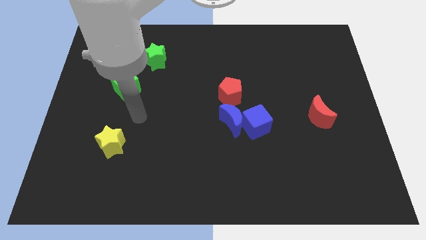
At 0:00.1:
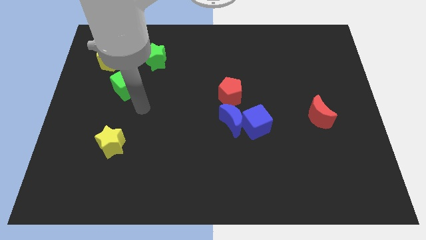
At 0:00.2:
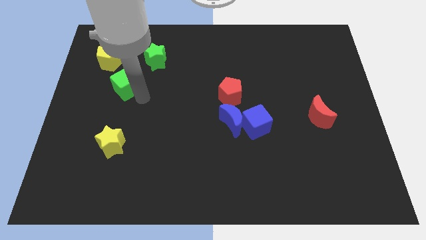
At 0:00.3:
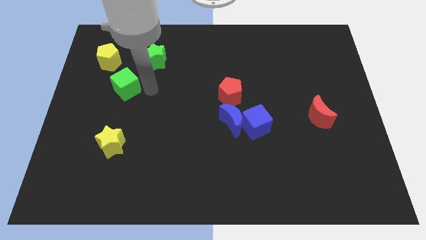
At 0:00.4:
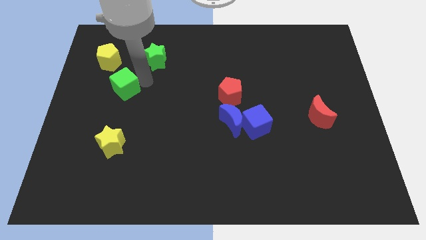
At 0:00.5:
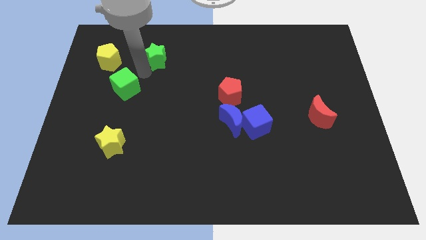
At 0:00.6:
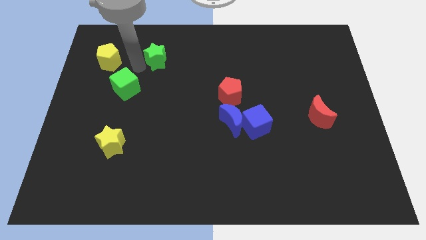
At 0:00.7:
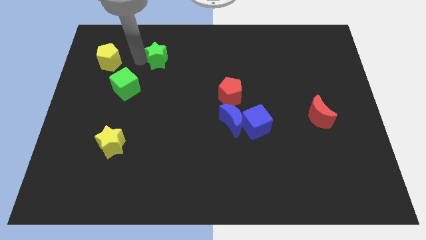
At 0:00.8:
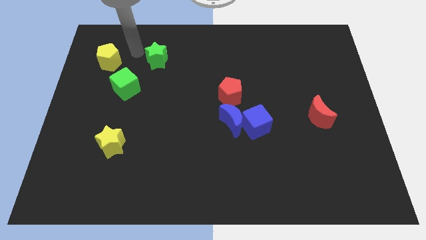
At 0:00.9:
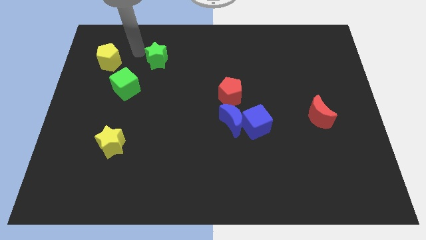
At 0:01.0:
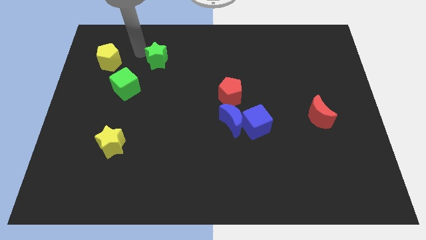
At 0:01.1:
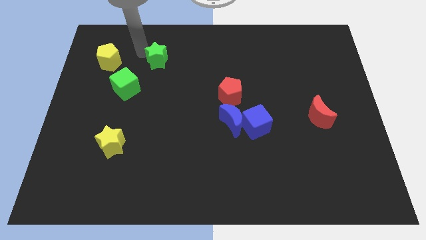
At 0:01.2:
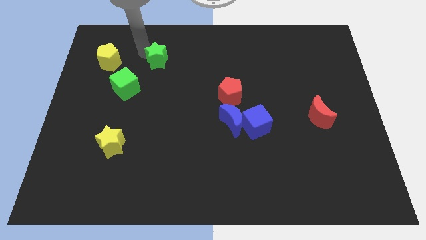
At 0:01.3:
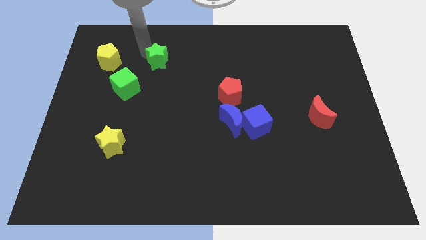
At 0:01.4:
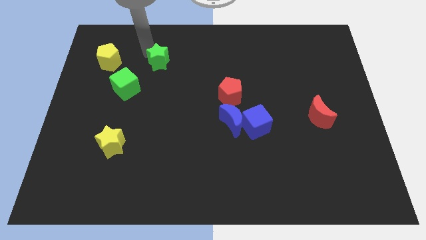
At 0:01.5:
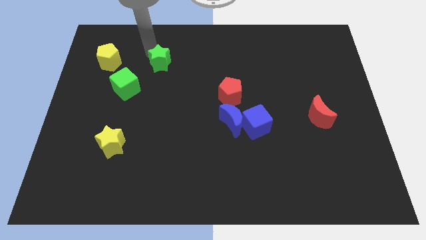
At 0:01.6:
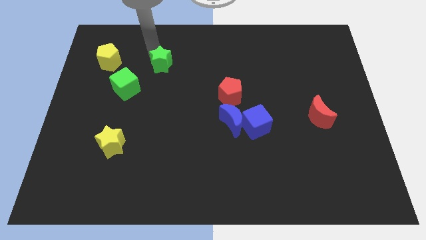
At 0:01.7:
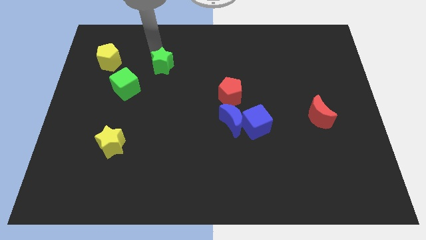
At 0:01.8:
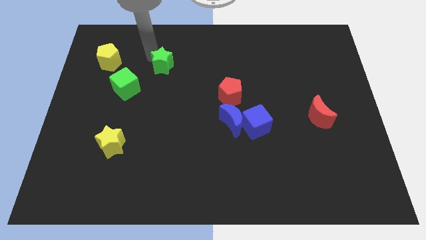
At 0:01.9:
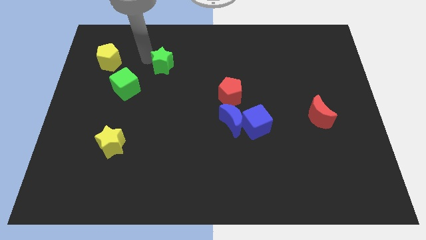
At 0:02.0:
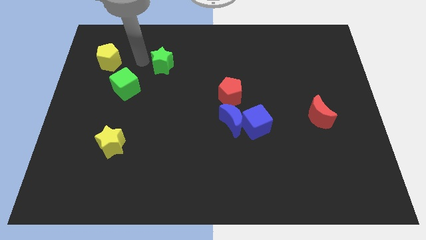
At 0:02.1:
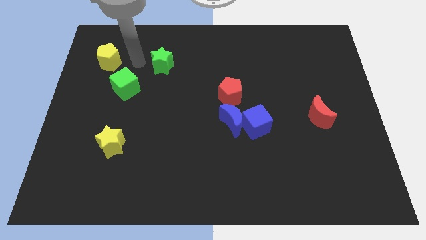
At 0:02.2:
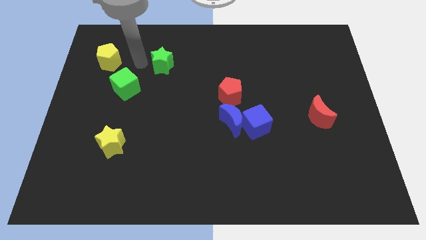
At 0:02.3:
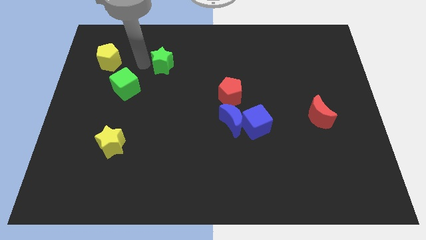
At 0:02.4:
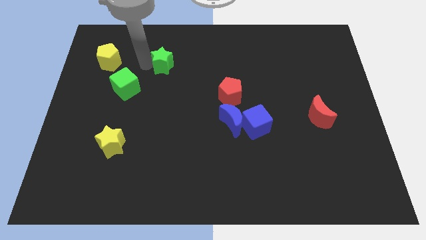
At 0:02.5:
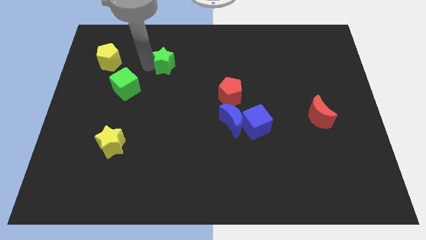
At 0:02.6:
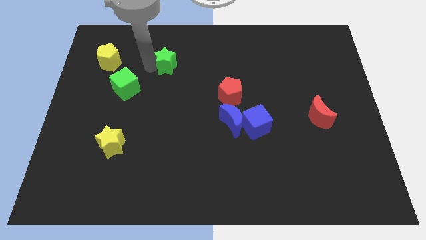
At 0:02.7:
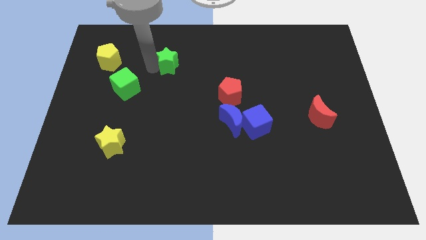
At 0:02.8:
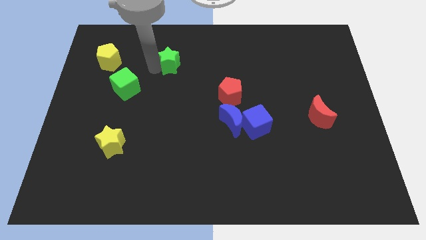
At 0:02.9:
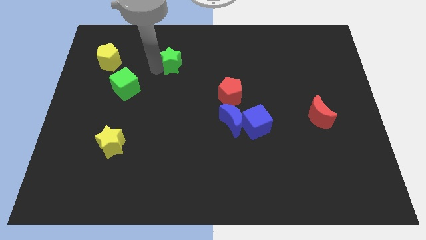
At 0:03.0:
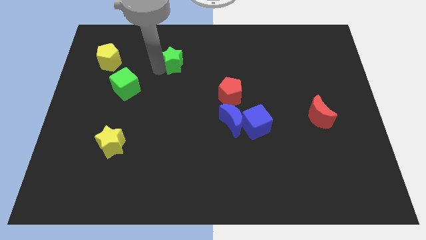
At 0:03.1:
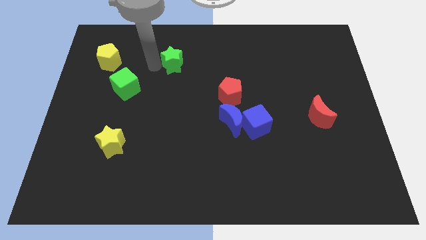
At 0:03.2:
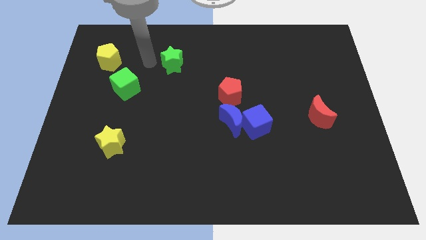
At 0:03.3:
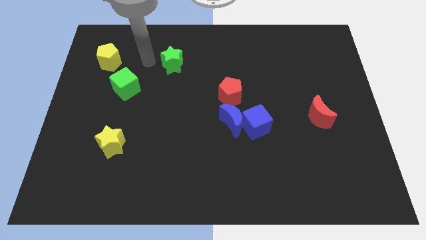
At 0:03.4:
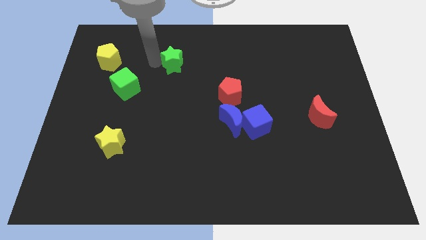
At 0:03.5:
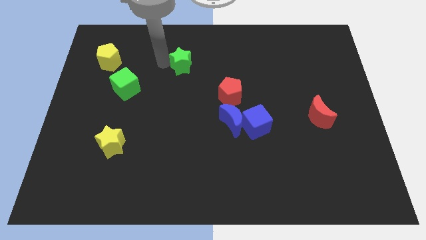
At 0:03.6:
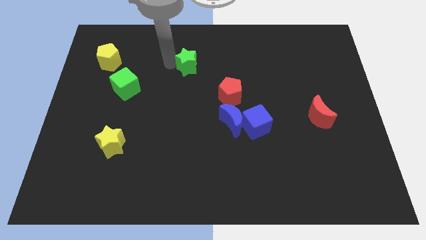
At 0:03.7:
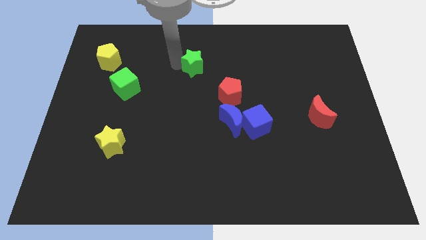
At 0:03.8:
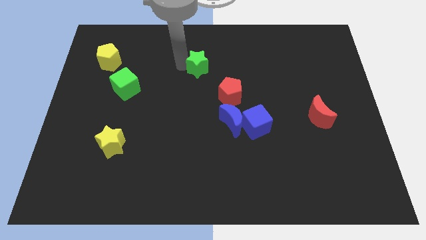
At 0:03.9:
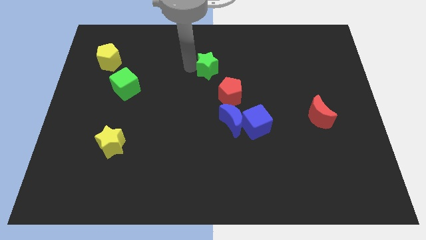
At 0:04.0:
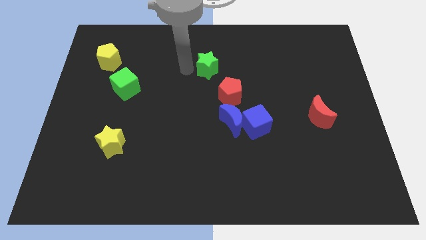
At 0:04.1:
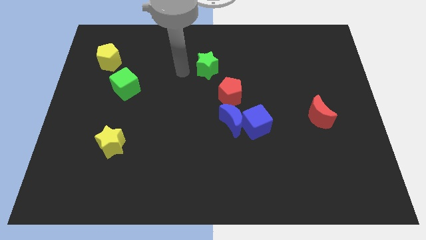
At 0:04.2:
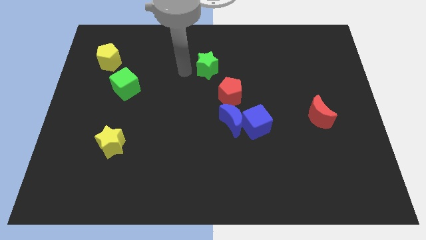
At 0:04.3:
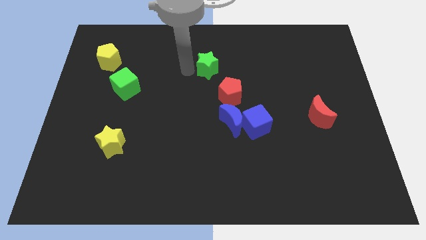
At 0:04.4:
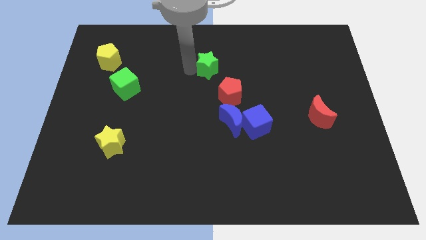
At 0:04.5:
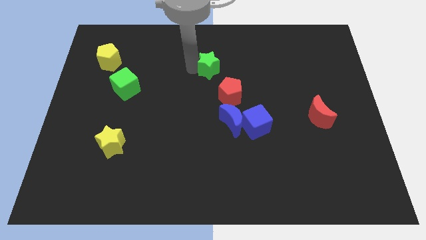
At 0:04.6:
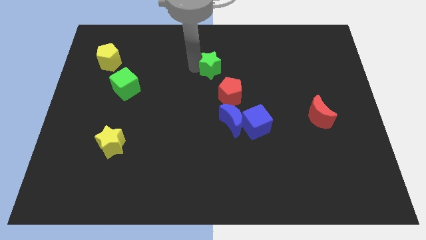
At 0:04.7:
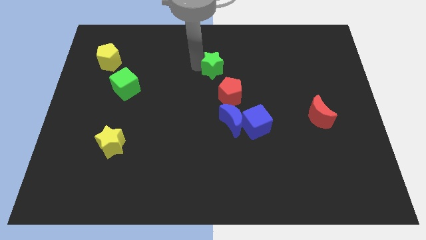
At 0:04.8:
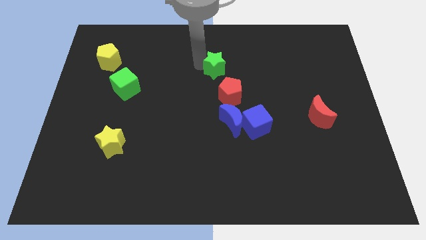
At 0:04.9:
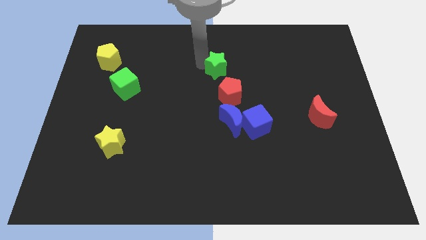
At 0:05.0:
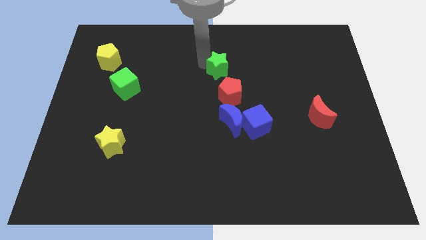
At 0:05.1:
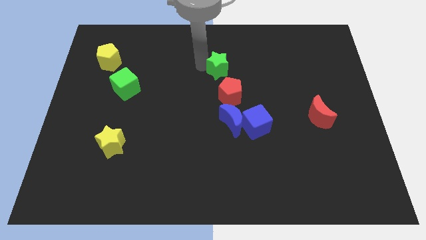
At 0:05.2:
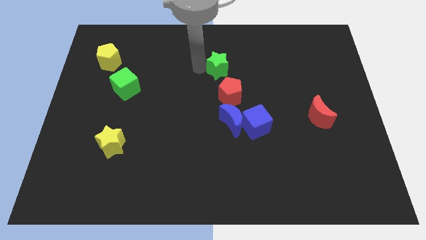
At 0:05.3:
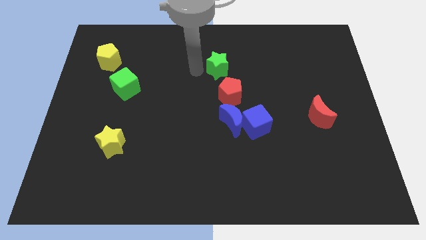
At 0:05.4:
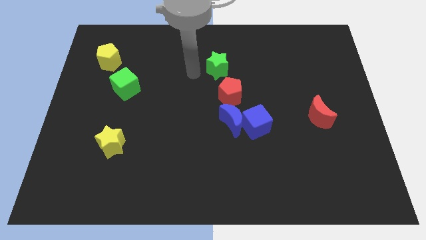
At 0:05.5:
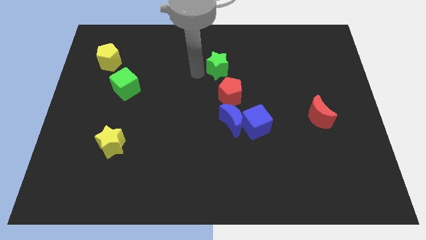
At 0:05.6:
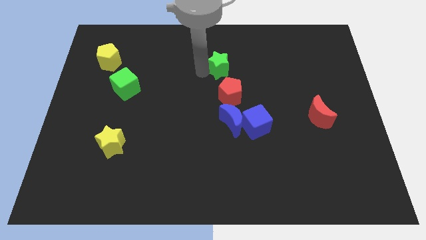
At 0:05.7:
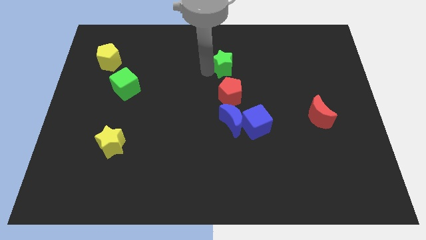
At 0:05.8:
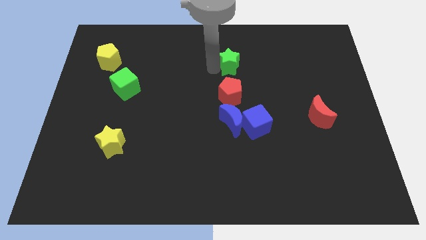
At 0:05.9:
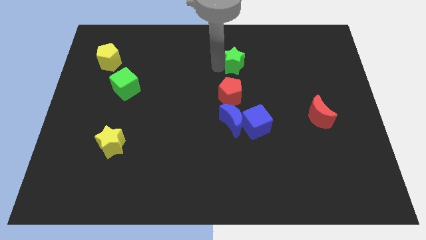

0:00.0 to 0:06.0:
slide the green star to the right

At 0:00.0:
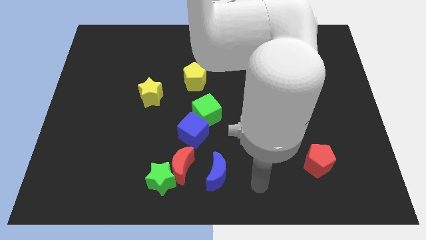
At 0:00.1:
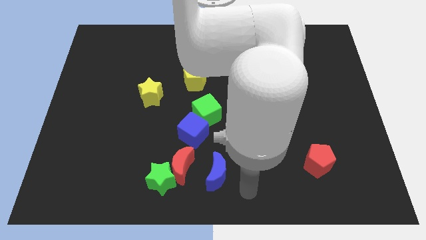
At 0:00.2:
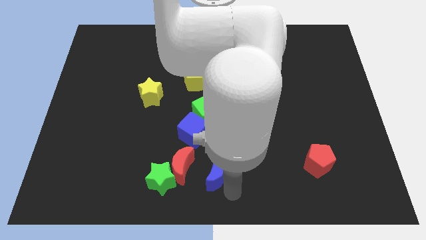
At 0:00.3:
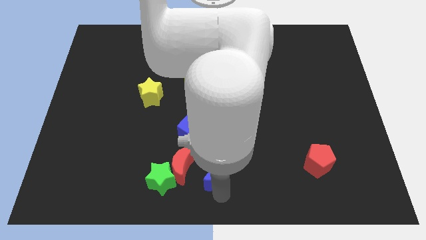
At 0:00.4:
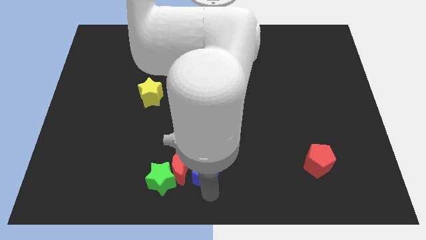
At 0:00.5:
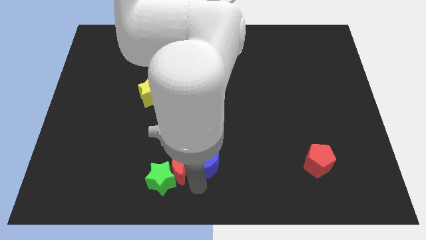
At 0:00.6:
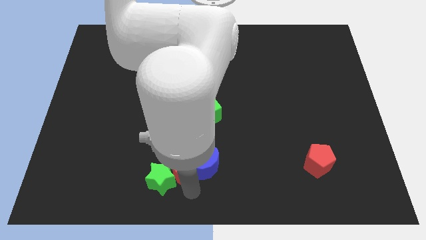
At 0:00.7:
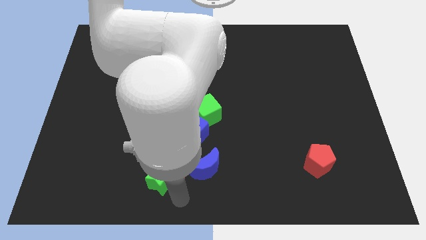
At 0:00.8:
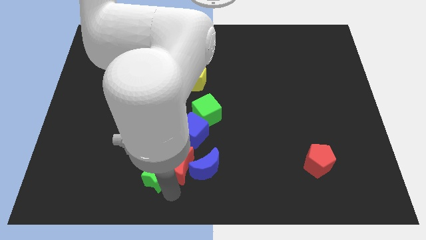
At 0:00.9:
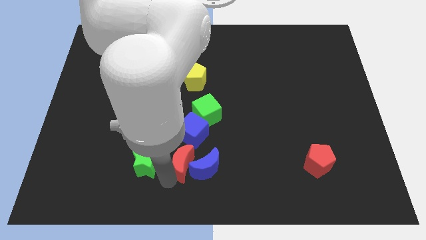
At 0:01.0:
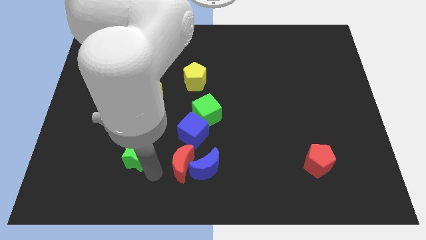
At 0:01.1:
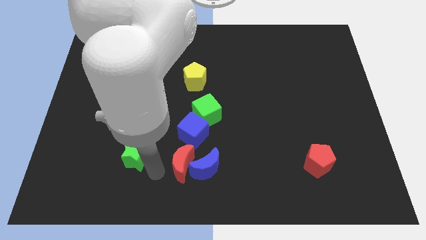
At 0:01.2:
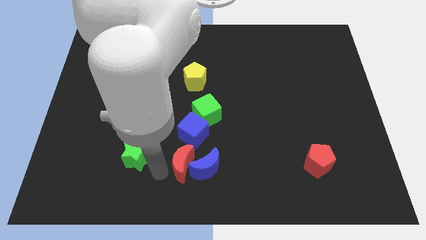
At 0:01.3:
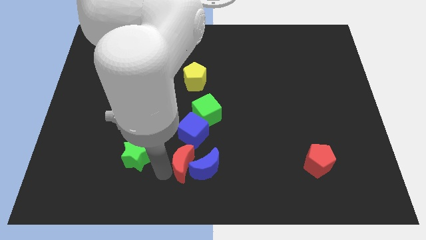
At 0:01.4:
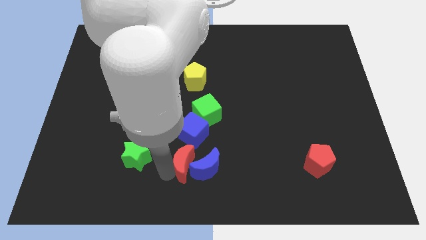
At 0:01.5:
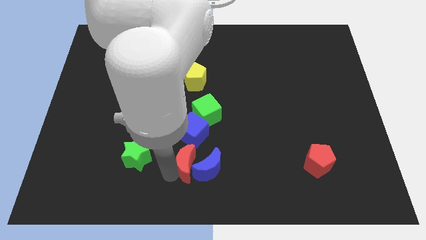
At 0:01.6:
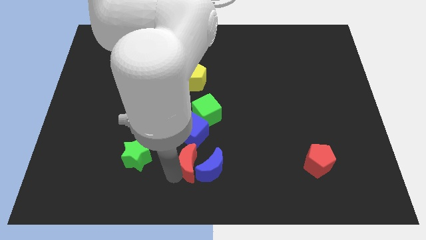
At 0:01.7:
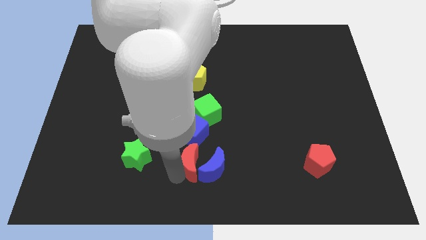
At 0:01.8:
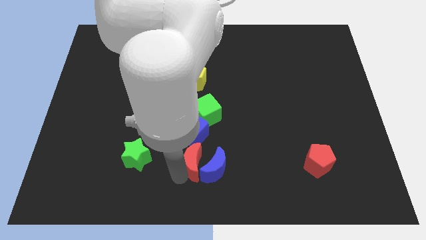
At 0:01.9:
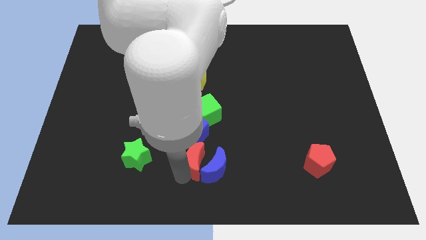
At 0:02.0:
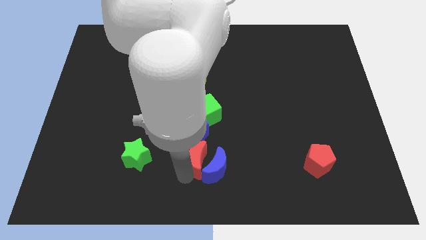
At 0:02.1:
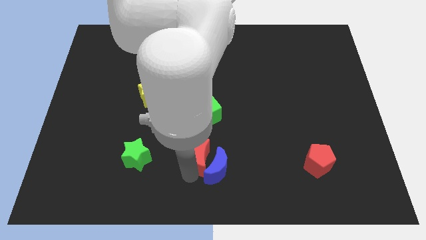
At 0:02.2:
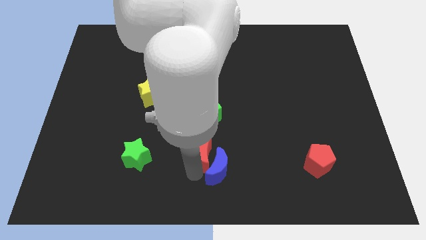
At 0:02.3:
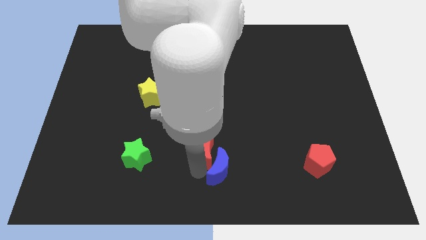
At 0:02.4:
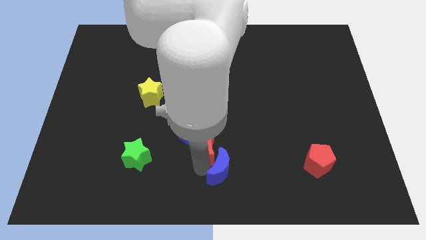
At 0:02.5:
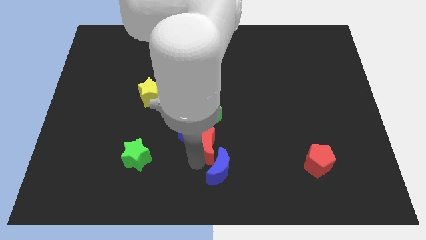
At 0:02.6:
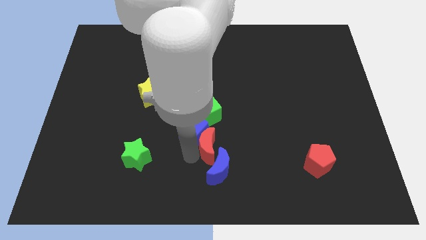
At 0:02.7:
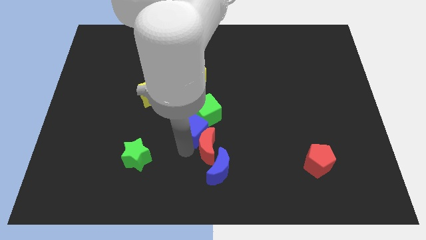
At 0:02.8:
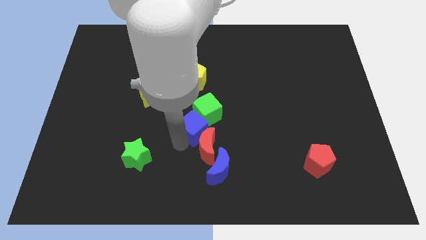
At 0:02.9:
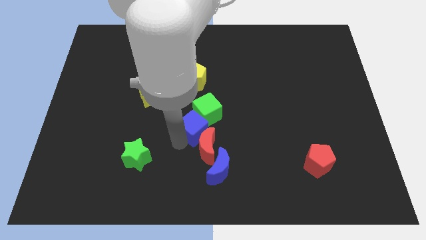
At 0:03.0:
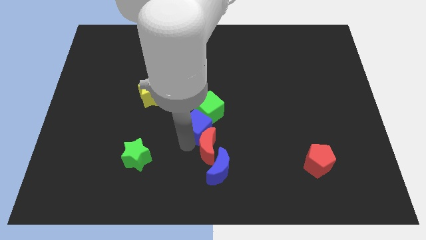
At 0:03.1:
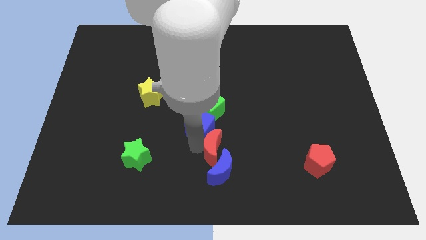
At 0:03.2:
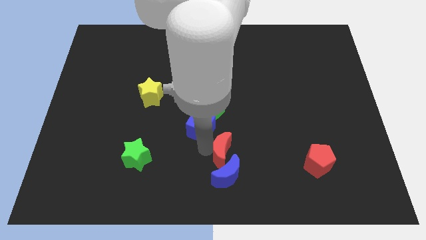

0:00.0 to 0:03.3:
push the red moon somewhat right
